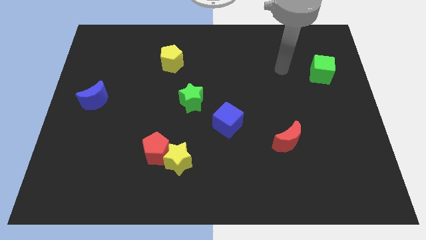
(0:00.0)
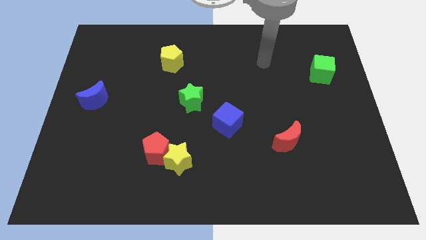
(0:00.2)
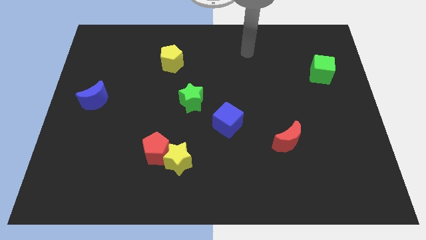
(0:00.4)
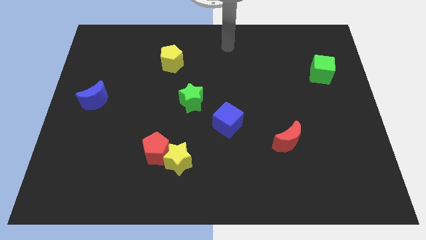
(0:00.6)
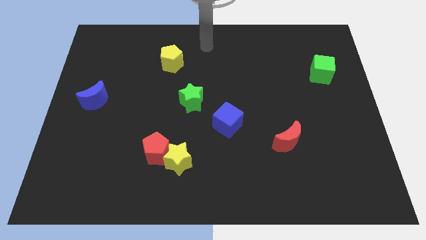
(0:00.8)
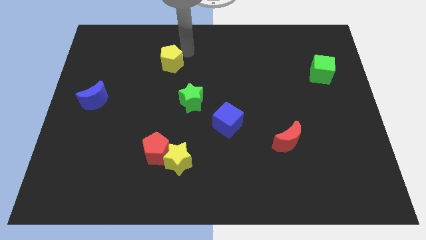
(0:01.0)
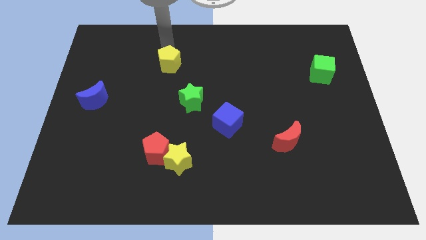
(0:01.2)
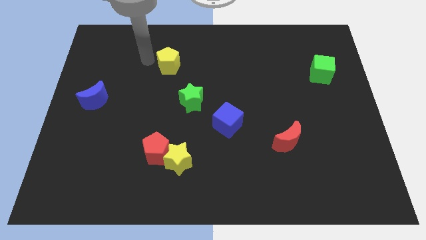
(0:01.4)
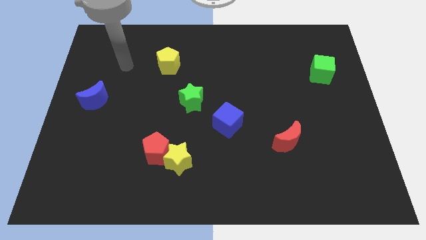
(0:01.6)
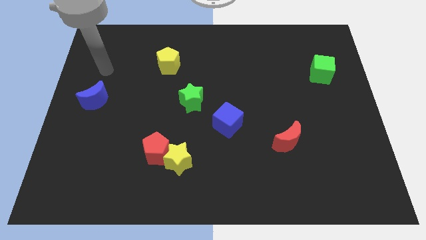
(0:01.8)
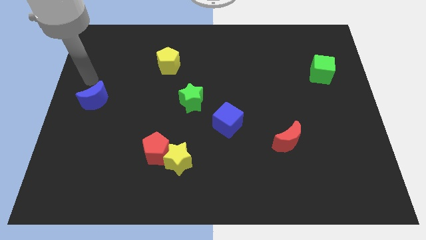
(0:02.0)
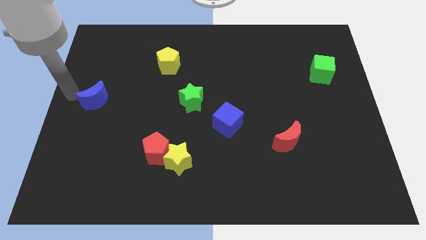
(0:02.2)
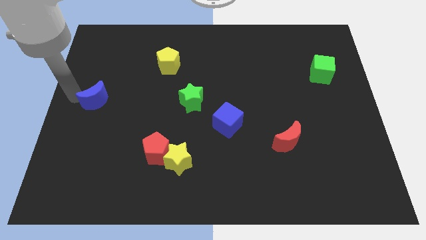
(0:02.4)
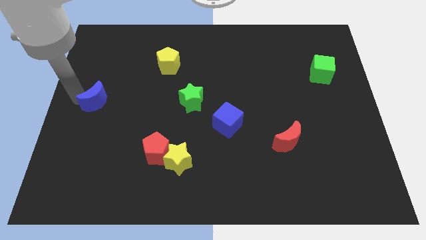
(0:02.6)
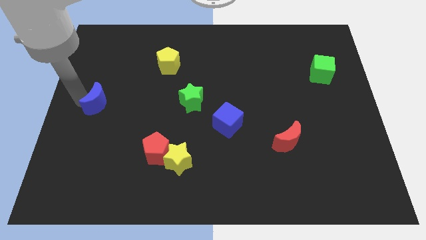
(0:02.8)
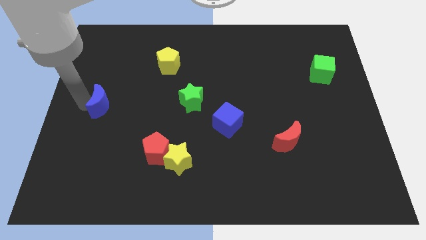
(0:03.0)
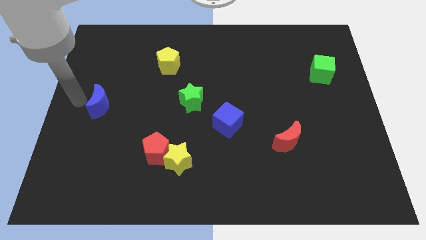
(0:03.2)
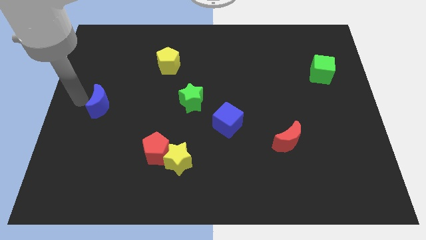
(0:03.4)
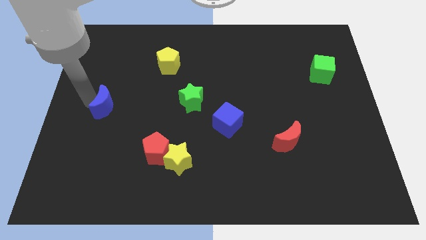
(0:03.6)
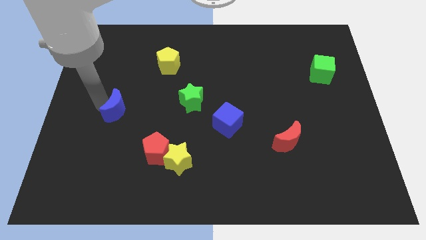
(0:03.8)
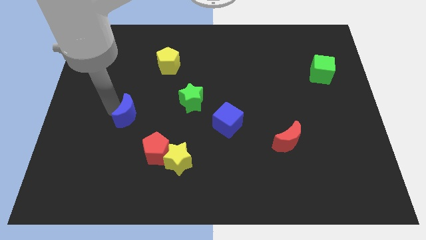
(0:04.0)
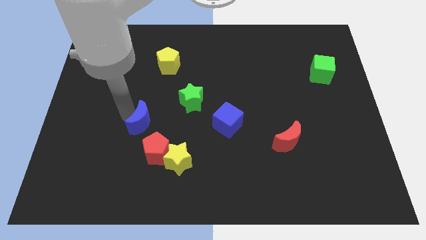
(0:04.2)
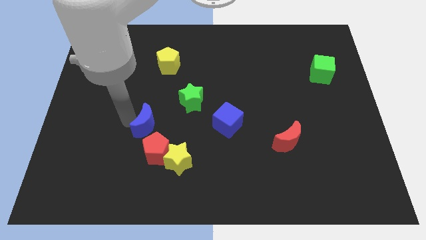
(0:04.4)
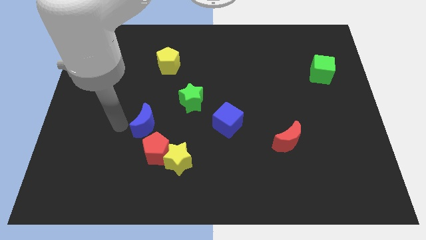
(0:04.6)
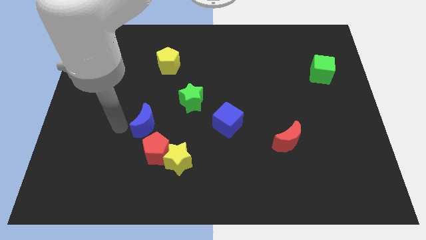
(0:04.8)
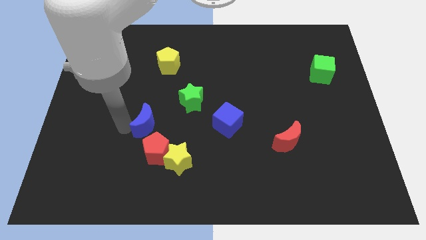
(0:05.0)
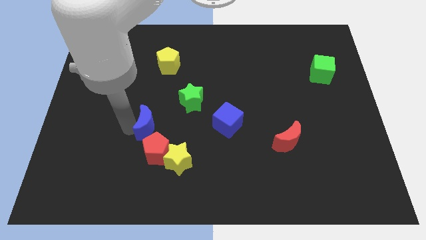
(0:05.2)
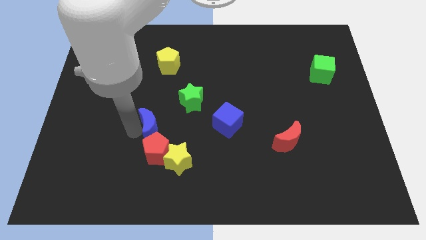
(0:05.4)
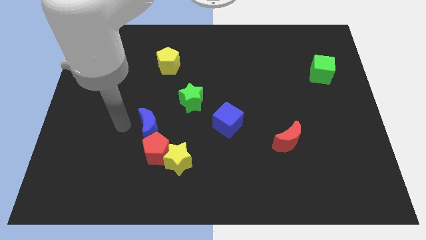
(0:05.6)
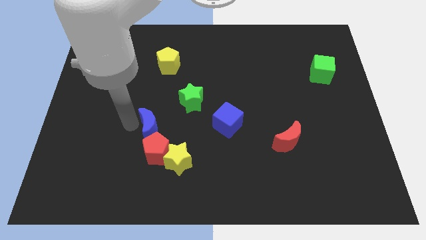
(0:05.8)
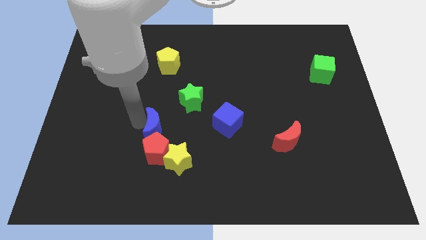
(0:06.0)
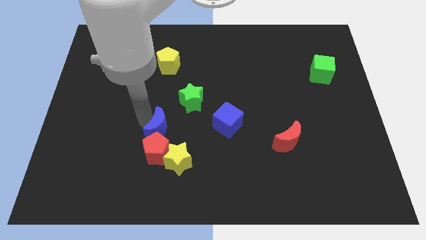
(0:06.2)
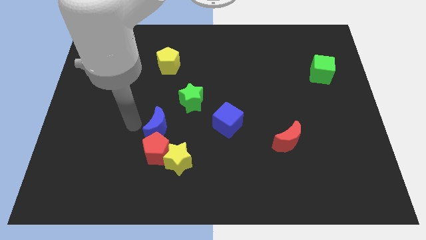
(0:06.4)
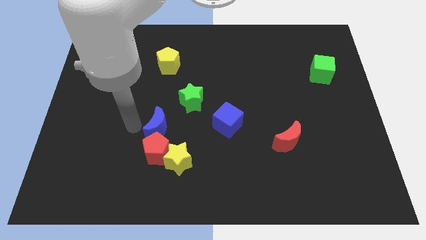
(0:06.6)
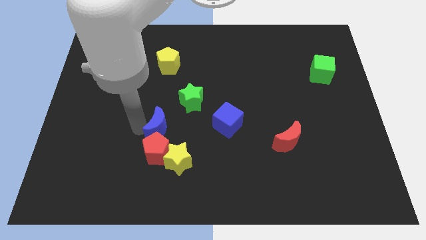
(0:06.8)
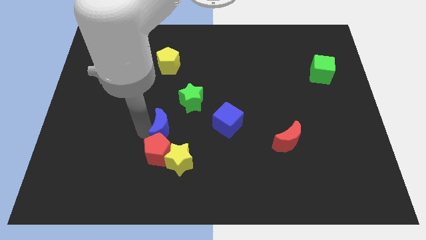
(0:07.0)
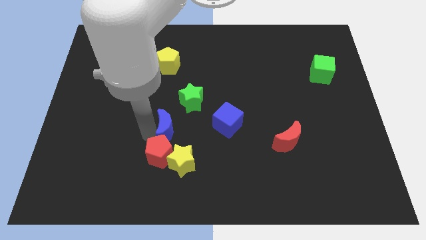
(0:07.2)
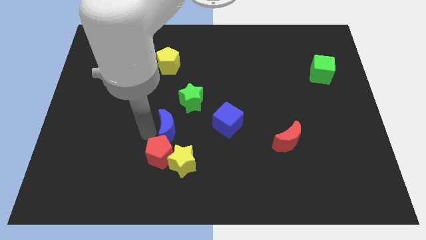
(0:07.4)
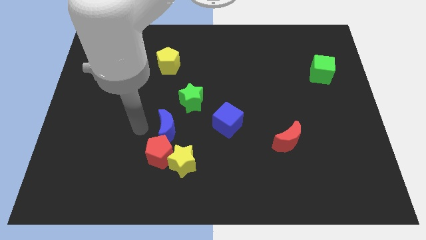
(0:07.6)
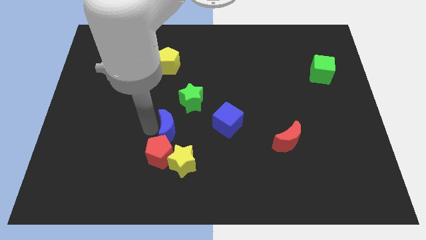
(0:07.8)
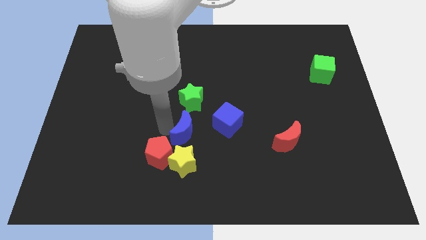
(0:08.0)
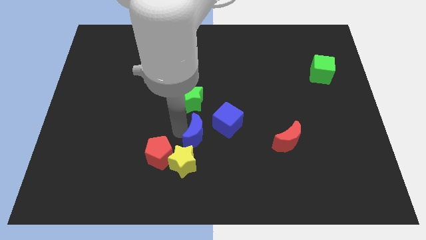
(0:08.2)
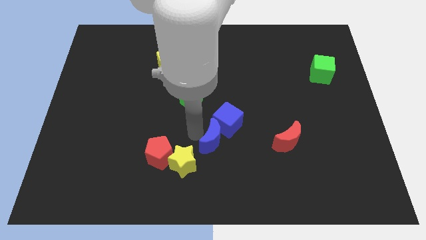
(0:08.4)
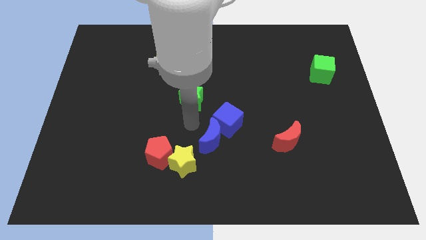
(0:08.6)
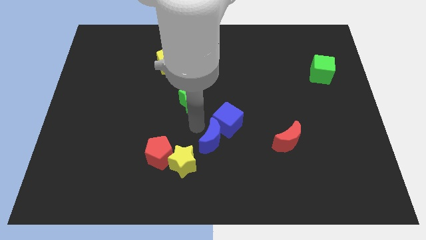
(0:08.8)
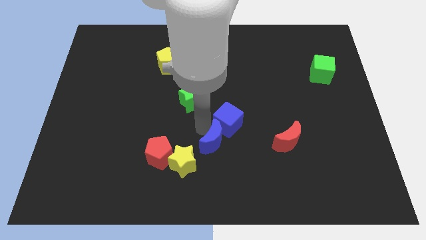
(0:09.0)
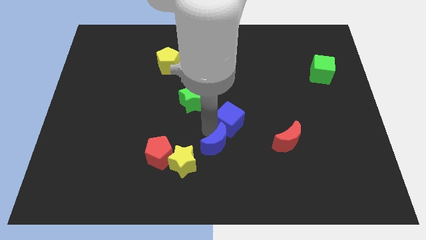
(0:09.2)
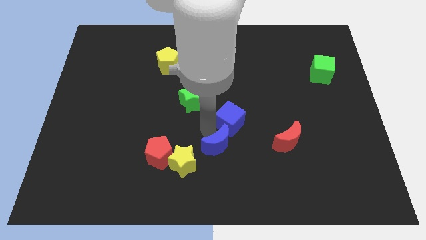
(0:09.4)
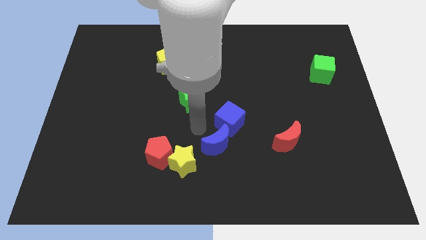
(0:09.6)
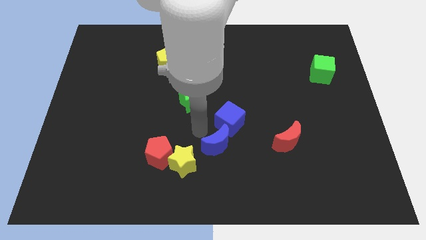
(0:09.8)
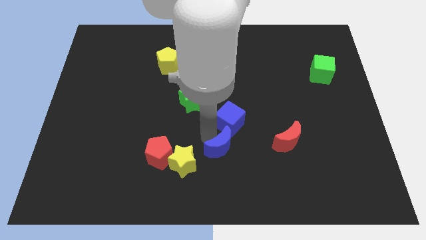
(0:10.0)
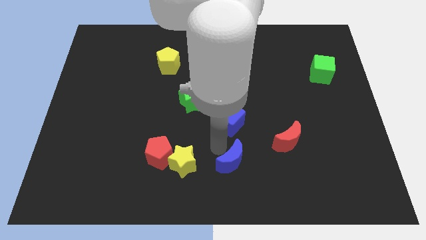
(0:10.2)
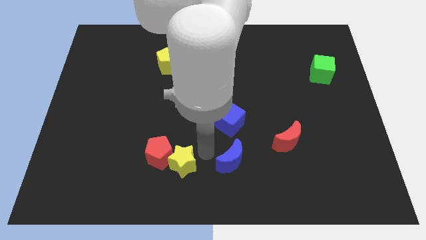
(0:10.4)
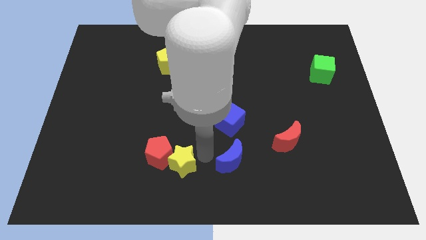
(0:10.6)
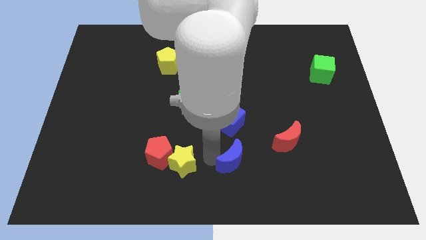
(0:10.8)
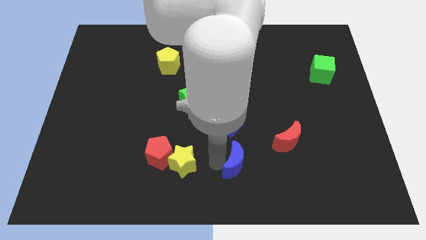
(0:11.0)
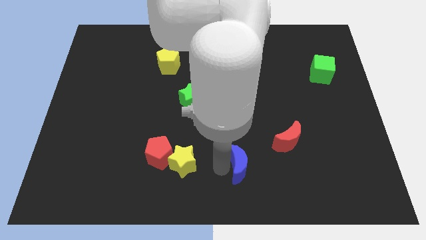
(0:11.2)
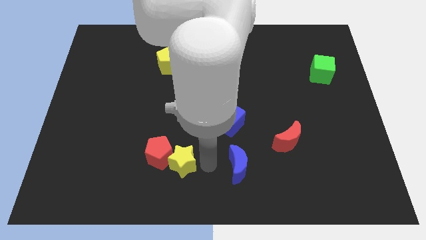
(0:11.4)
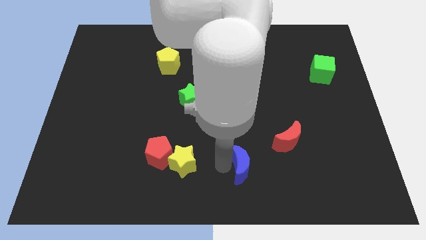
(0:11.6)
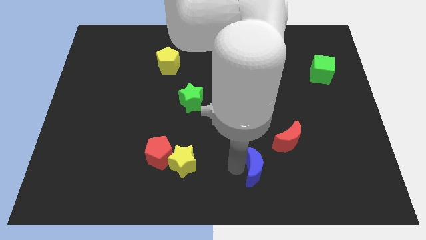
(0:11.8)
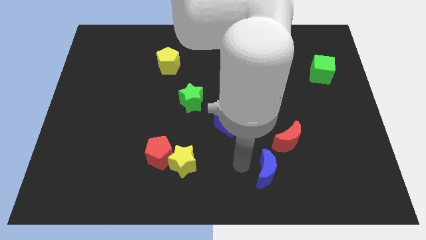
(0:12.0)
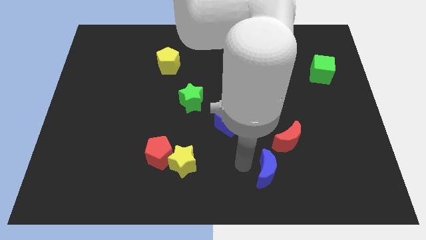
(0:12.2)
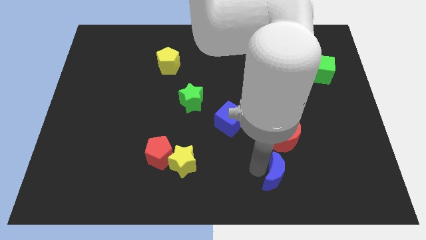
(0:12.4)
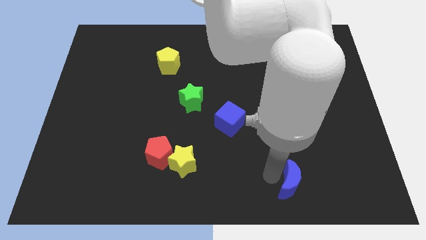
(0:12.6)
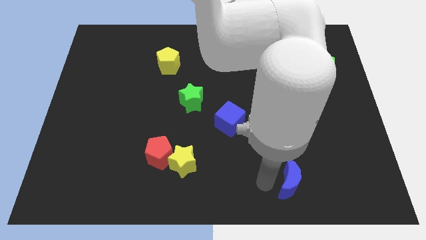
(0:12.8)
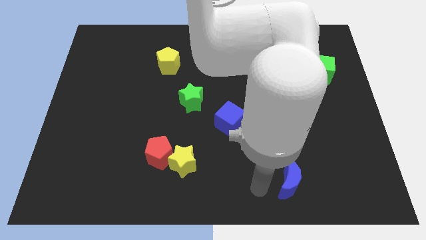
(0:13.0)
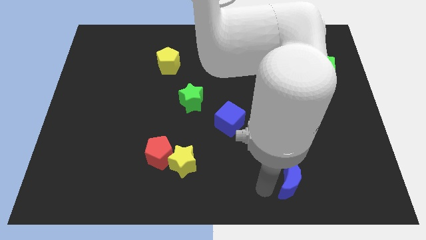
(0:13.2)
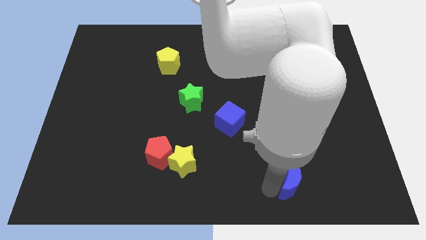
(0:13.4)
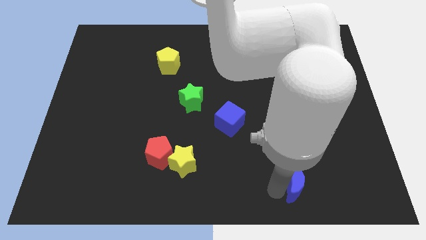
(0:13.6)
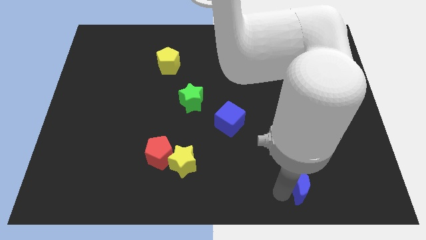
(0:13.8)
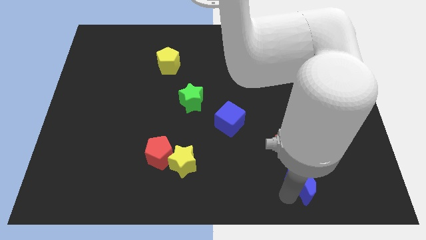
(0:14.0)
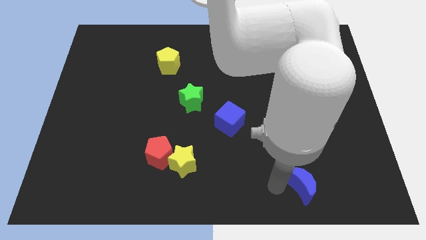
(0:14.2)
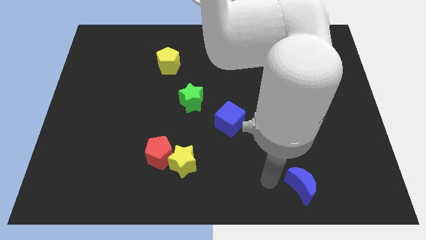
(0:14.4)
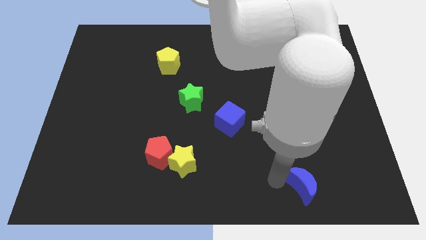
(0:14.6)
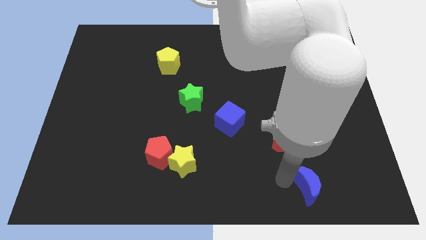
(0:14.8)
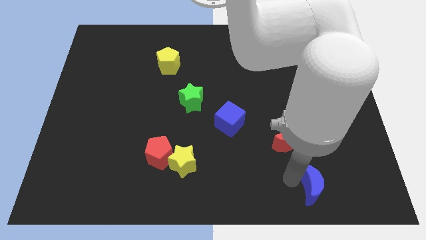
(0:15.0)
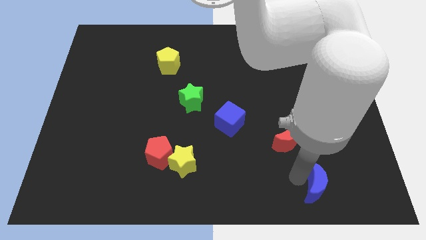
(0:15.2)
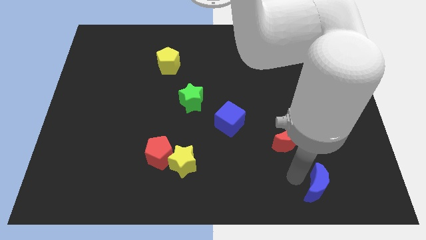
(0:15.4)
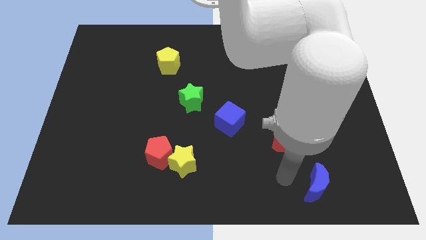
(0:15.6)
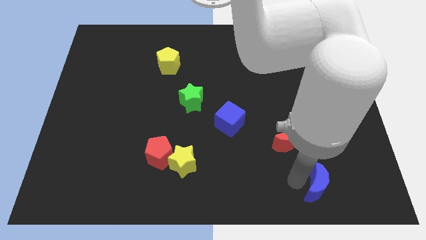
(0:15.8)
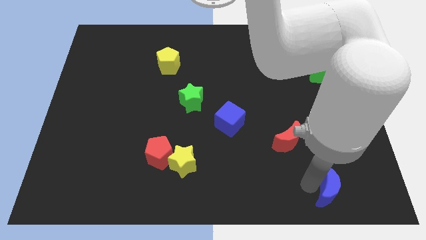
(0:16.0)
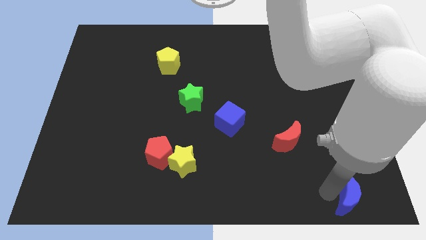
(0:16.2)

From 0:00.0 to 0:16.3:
push the blue moon to the bottom right of the board
